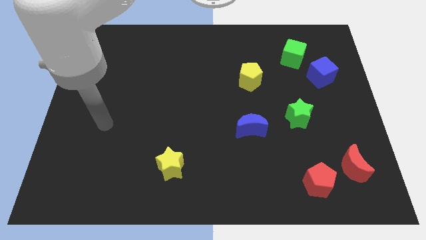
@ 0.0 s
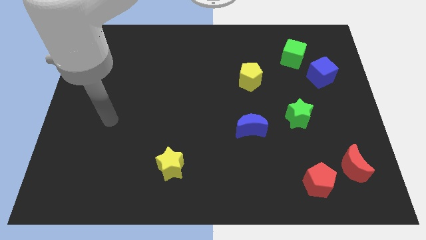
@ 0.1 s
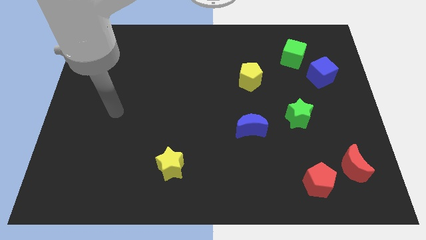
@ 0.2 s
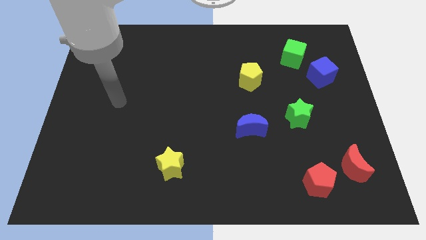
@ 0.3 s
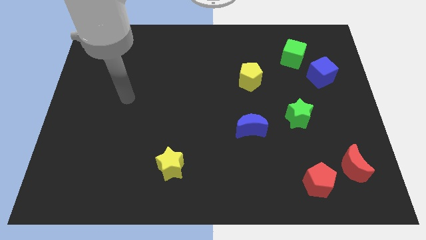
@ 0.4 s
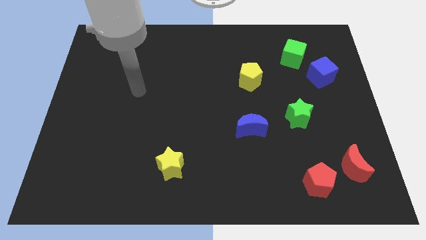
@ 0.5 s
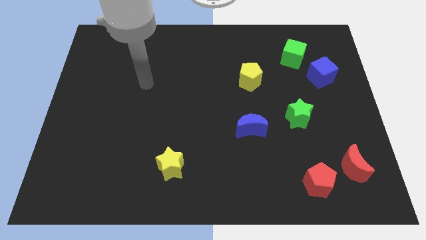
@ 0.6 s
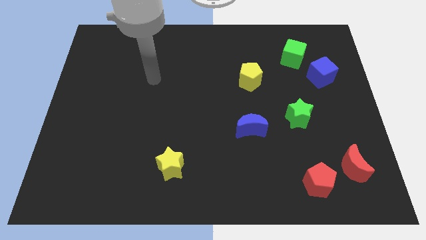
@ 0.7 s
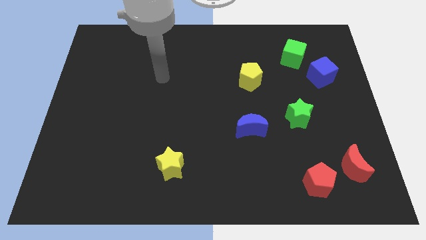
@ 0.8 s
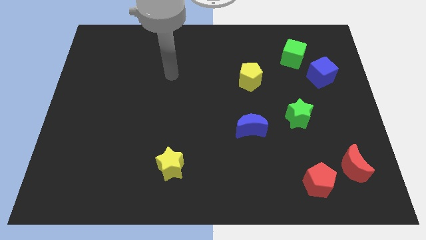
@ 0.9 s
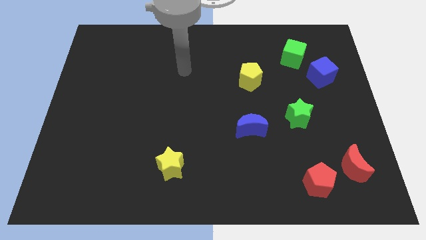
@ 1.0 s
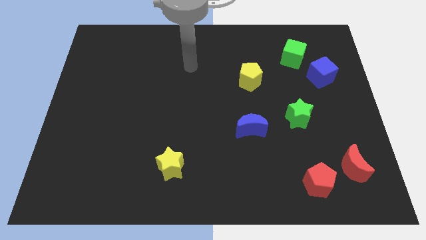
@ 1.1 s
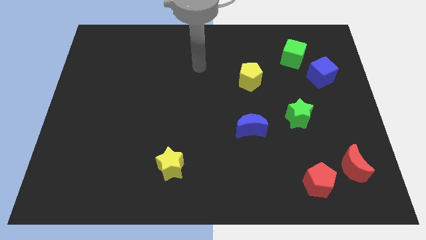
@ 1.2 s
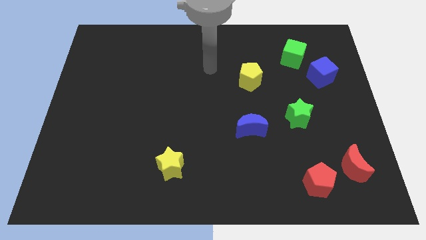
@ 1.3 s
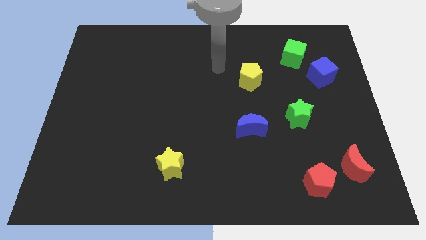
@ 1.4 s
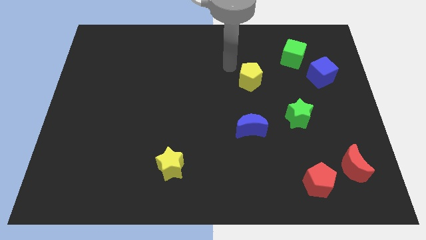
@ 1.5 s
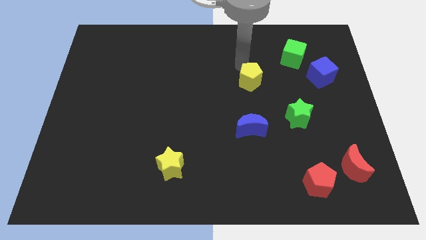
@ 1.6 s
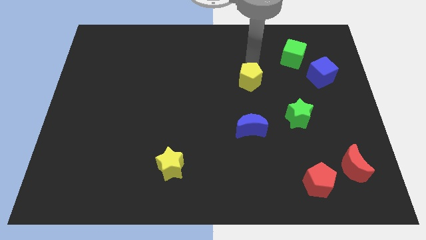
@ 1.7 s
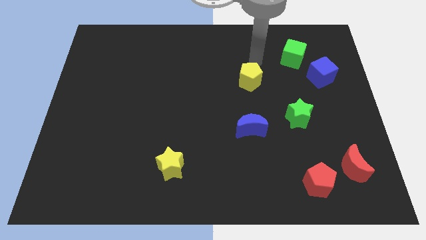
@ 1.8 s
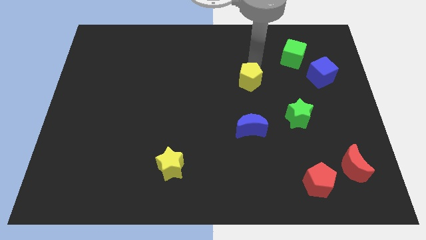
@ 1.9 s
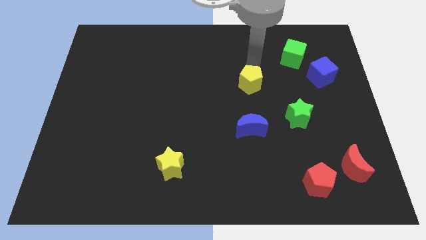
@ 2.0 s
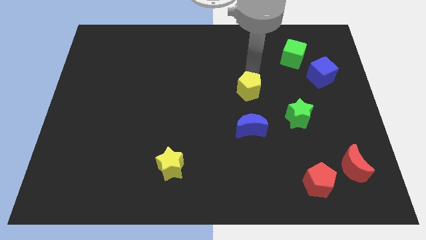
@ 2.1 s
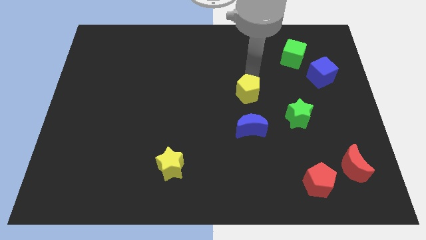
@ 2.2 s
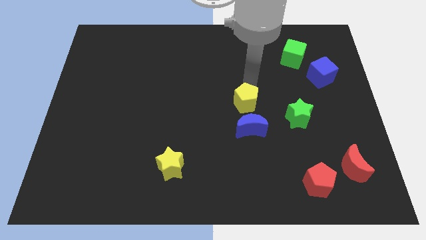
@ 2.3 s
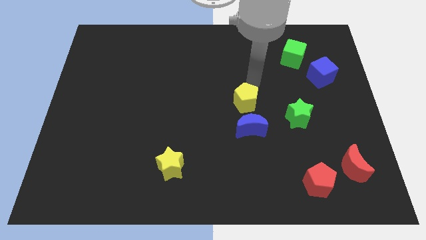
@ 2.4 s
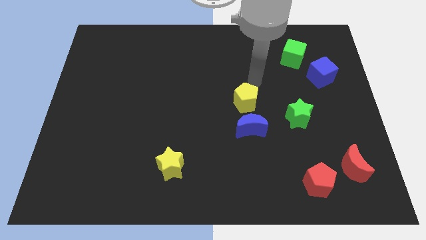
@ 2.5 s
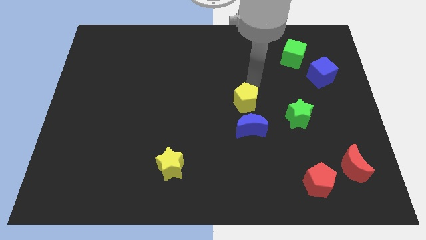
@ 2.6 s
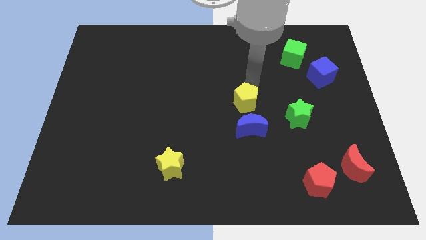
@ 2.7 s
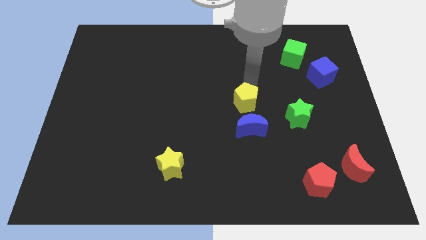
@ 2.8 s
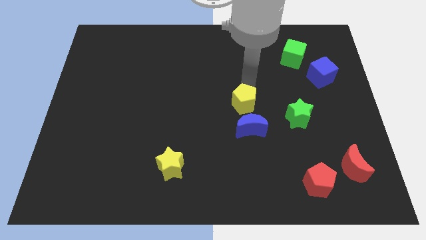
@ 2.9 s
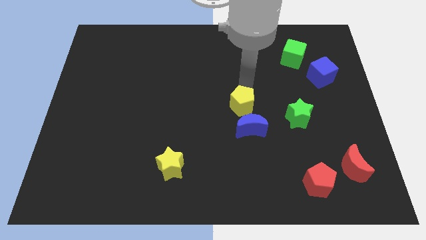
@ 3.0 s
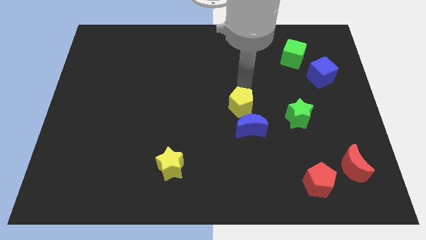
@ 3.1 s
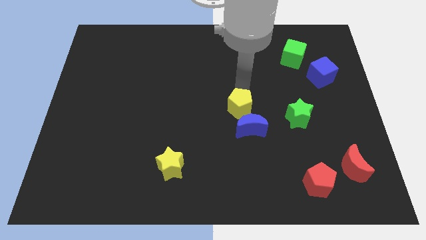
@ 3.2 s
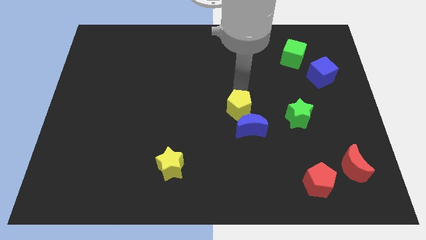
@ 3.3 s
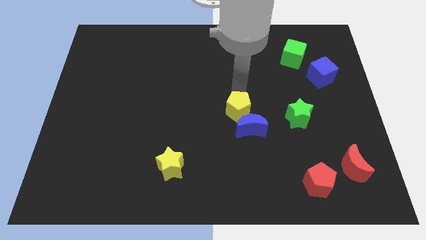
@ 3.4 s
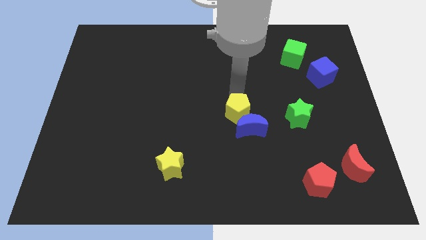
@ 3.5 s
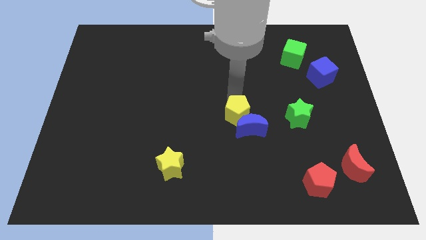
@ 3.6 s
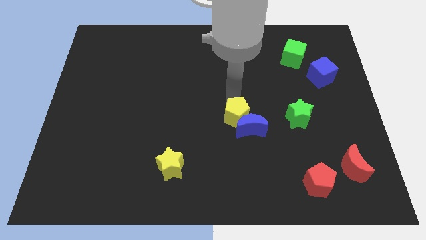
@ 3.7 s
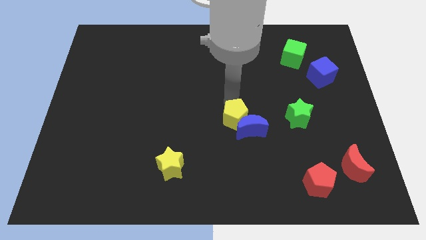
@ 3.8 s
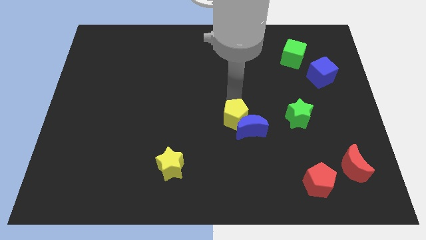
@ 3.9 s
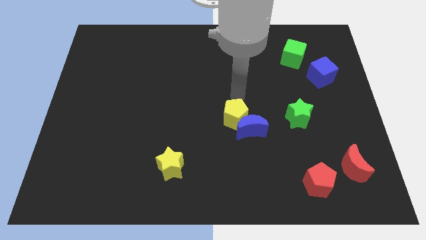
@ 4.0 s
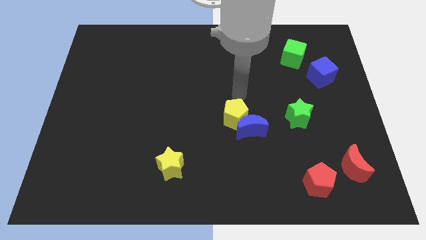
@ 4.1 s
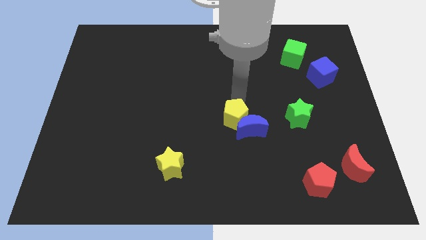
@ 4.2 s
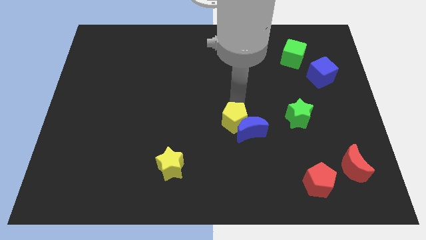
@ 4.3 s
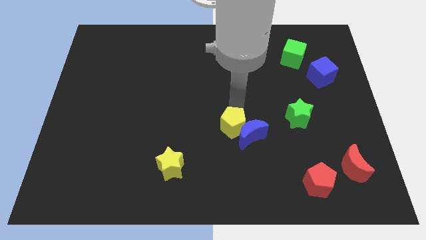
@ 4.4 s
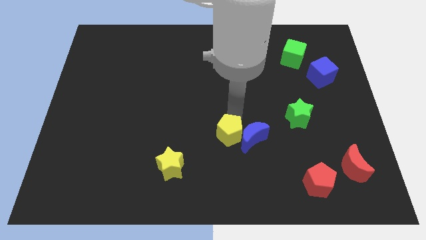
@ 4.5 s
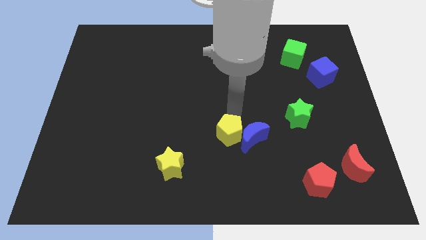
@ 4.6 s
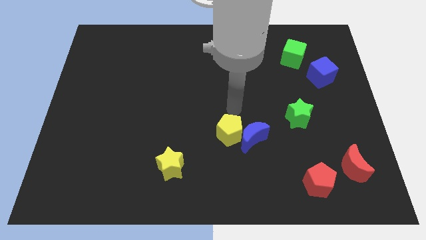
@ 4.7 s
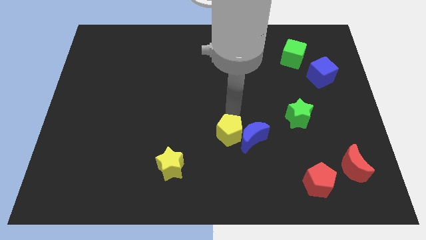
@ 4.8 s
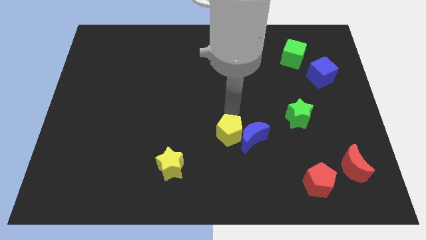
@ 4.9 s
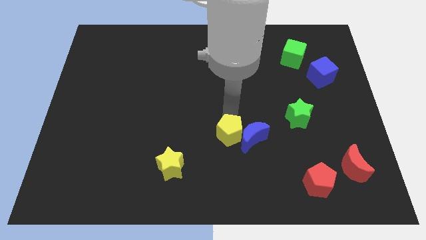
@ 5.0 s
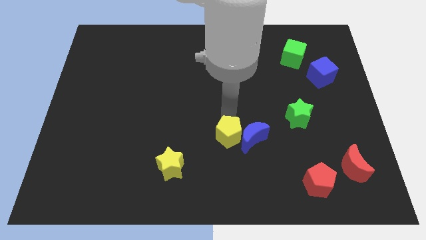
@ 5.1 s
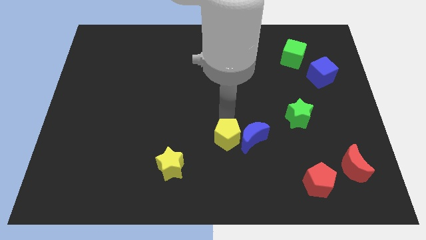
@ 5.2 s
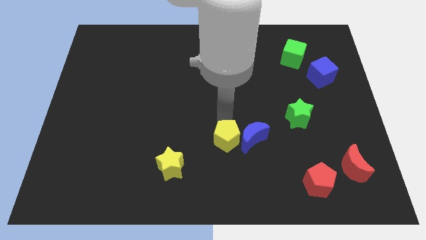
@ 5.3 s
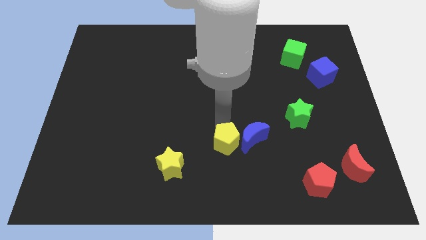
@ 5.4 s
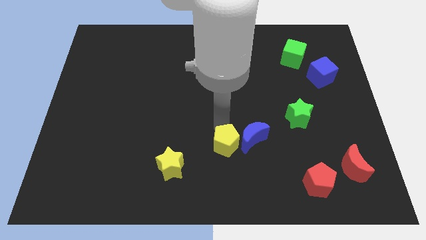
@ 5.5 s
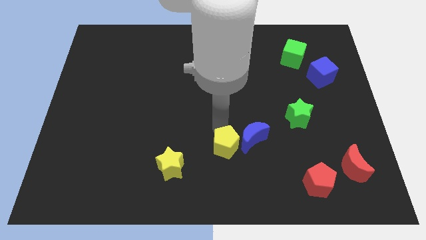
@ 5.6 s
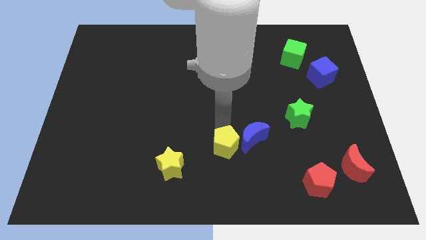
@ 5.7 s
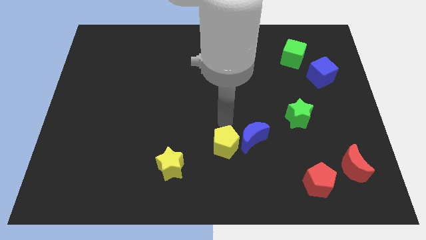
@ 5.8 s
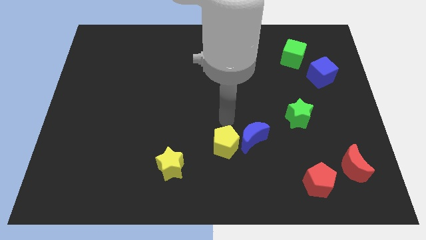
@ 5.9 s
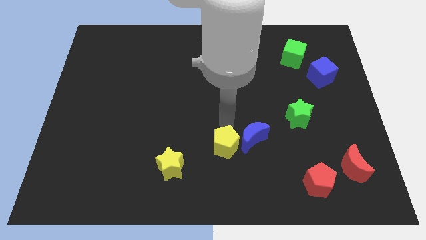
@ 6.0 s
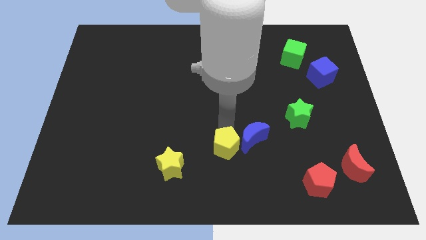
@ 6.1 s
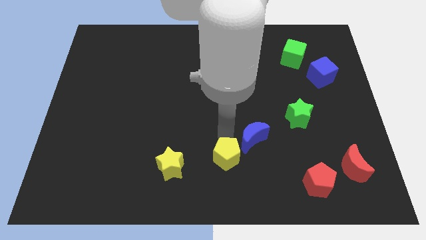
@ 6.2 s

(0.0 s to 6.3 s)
move the yellow pentagon to the bottom side

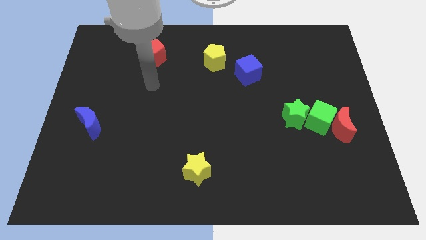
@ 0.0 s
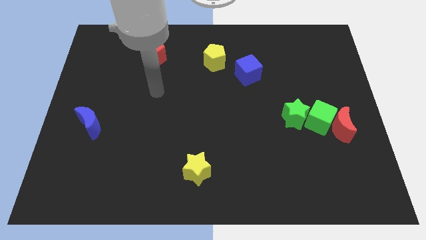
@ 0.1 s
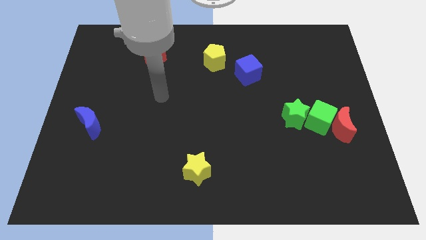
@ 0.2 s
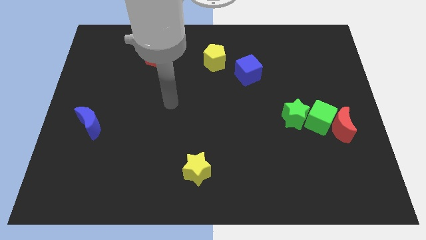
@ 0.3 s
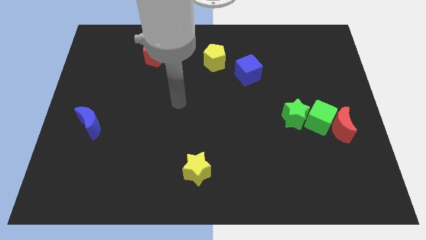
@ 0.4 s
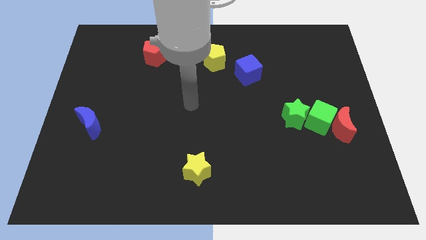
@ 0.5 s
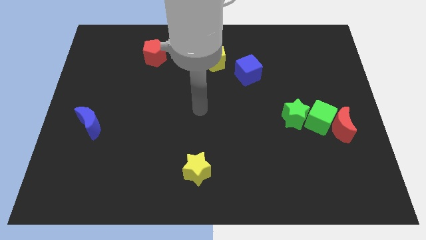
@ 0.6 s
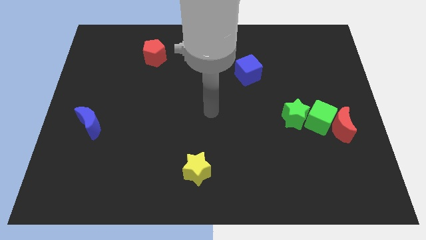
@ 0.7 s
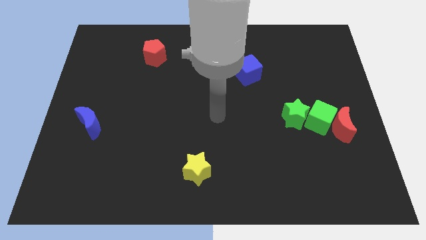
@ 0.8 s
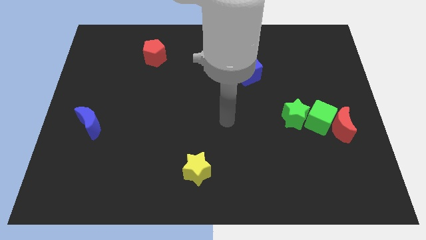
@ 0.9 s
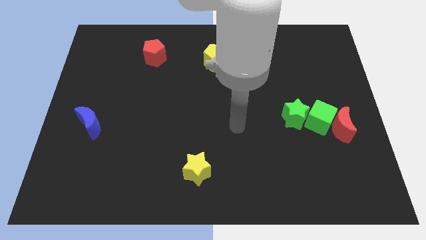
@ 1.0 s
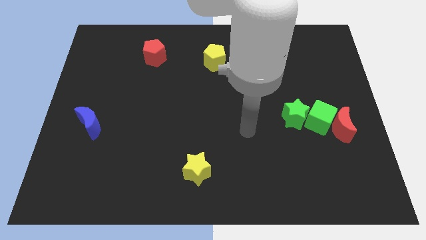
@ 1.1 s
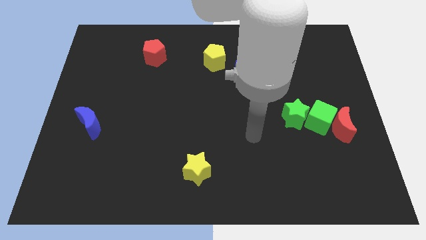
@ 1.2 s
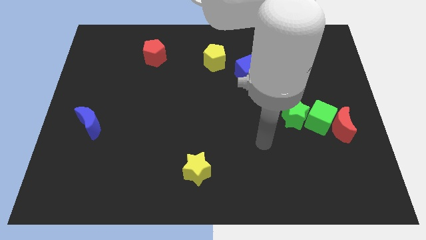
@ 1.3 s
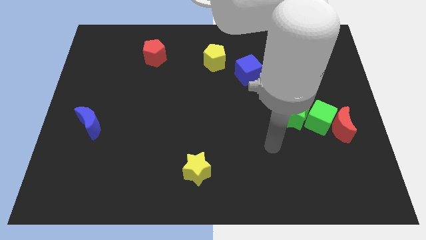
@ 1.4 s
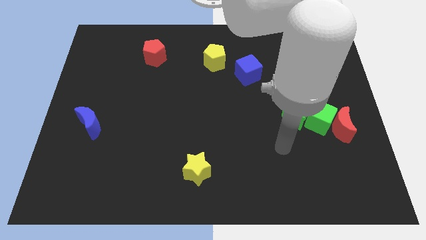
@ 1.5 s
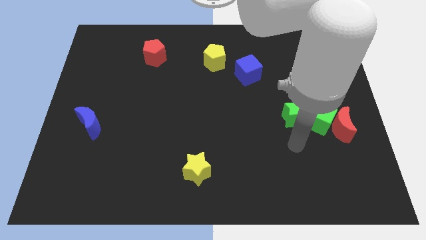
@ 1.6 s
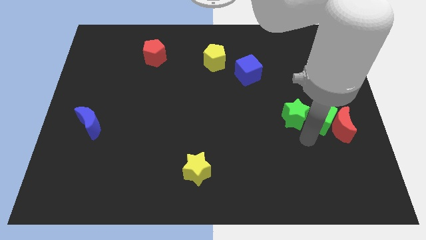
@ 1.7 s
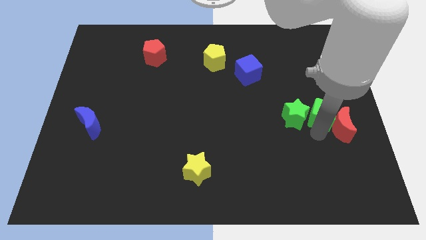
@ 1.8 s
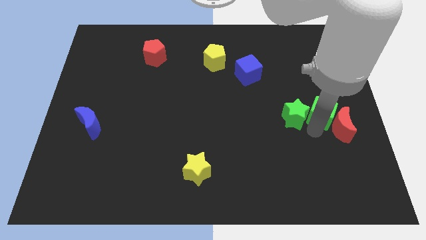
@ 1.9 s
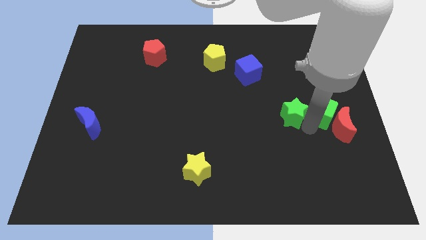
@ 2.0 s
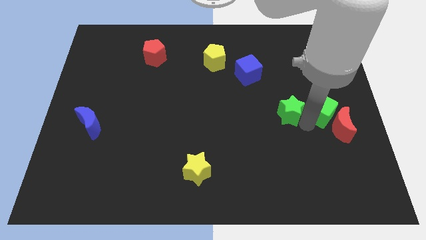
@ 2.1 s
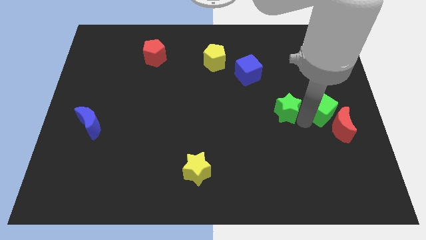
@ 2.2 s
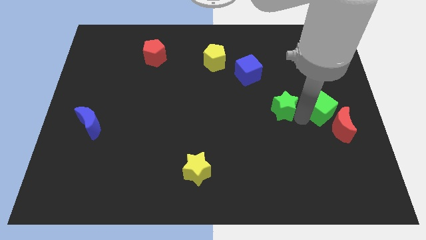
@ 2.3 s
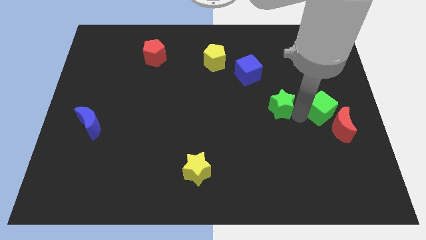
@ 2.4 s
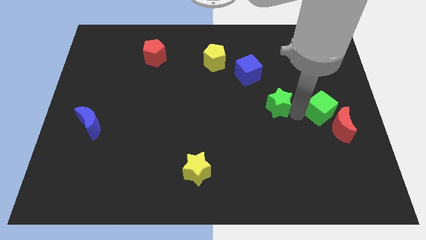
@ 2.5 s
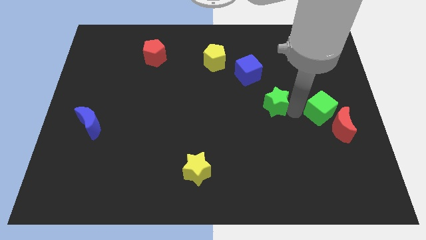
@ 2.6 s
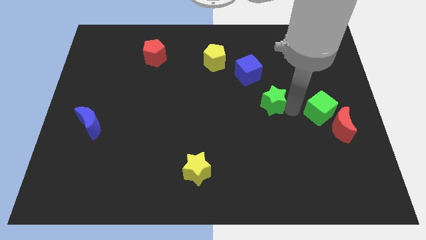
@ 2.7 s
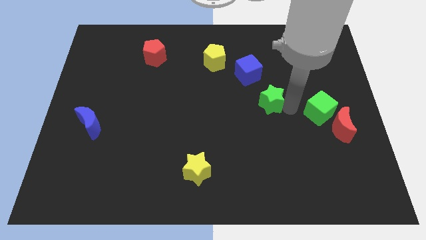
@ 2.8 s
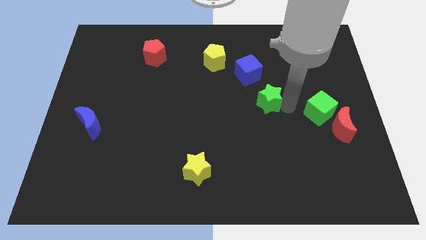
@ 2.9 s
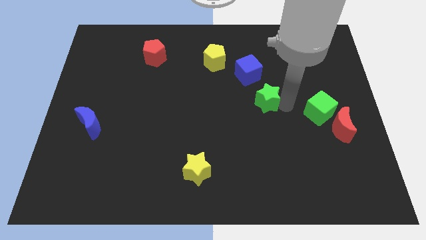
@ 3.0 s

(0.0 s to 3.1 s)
push the green star to the center of the board
